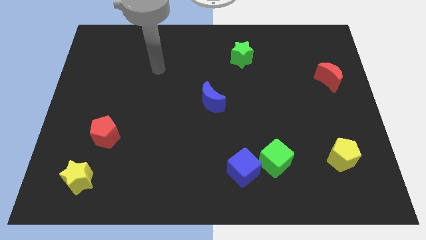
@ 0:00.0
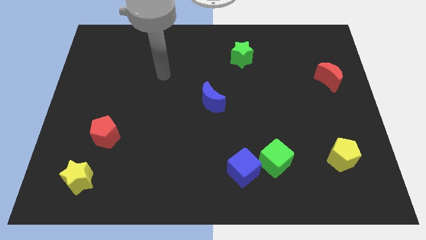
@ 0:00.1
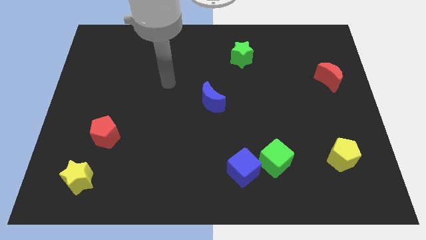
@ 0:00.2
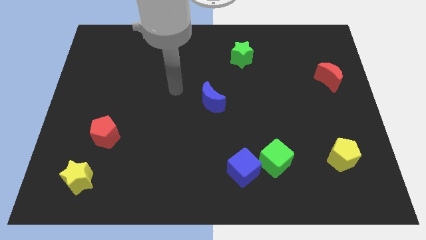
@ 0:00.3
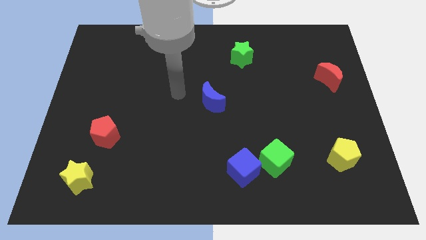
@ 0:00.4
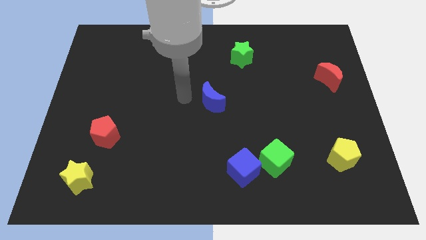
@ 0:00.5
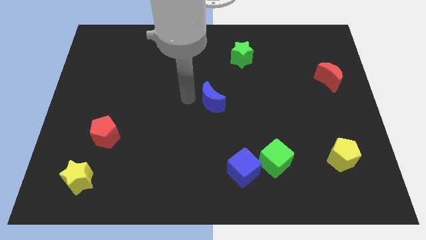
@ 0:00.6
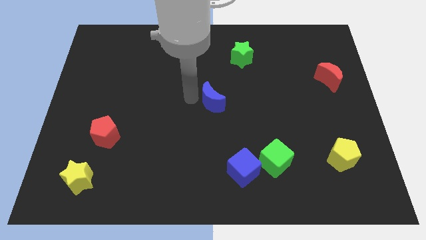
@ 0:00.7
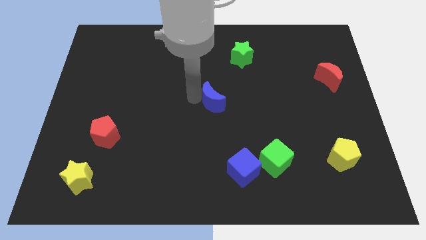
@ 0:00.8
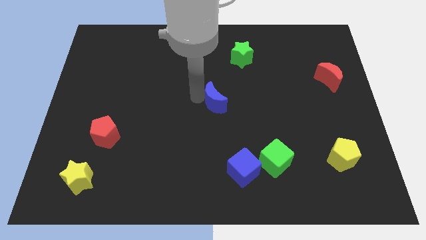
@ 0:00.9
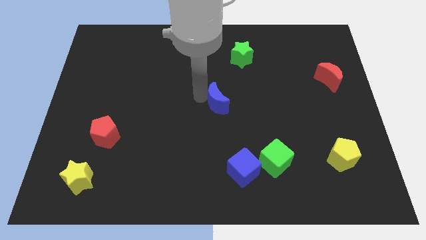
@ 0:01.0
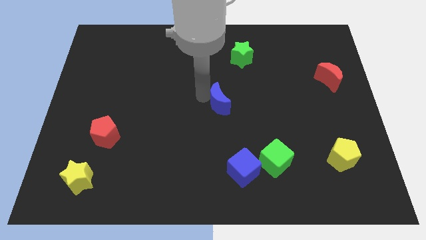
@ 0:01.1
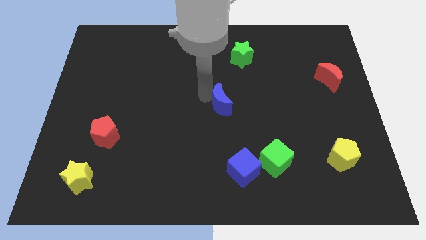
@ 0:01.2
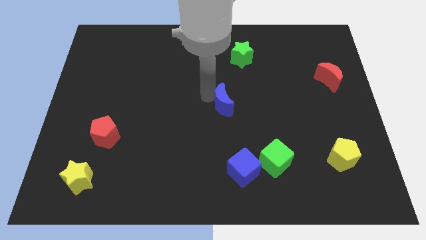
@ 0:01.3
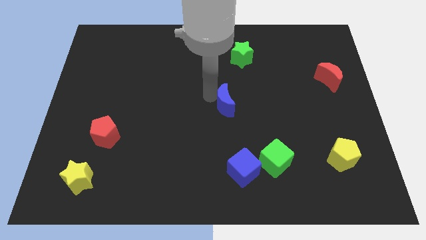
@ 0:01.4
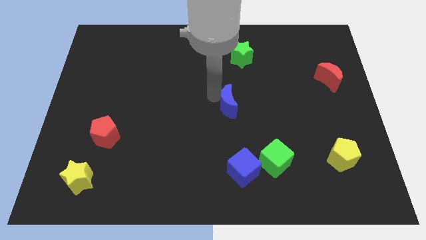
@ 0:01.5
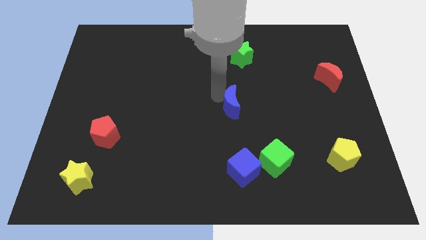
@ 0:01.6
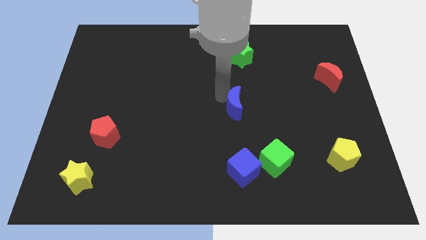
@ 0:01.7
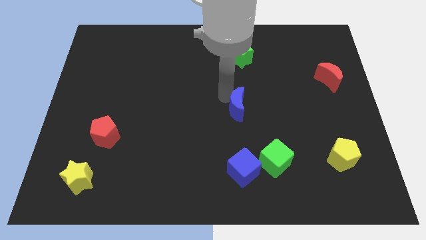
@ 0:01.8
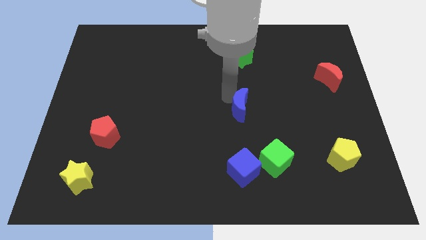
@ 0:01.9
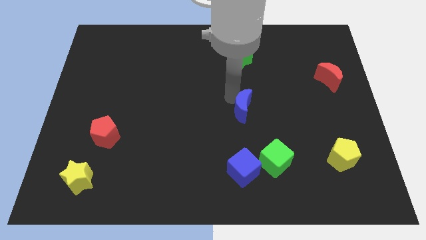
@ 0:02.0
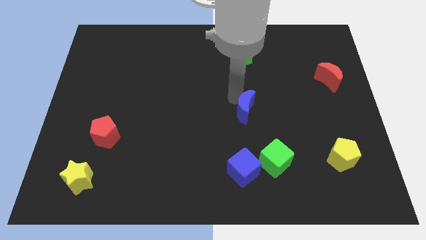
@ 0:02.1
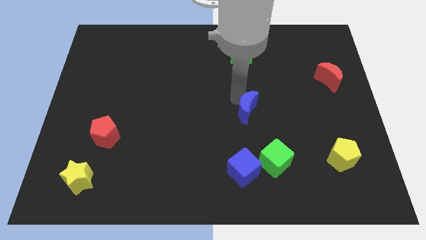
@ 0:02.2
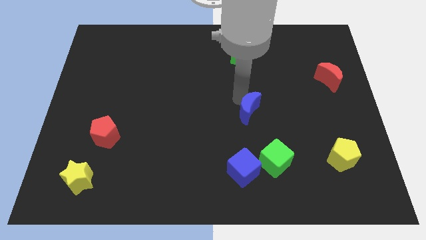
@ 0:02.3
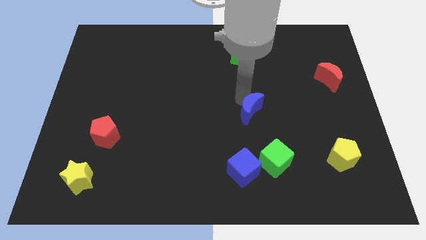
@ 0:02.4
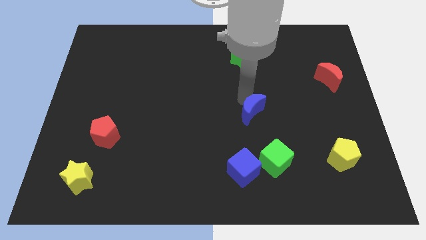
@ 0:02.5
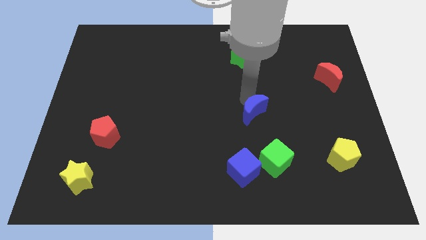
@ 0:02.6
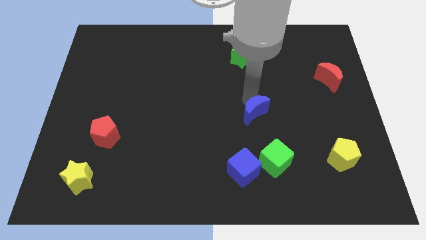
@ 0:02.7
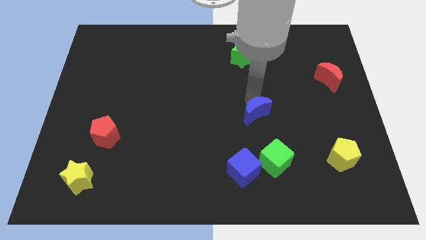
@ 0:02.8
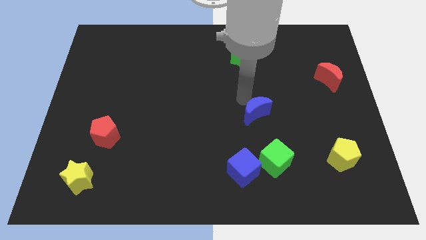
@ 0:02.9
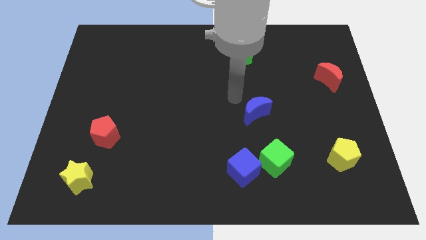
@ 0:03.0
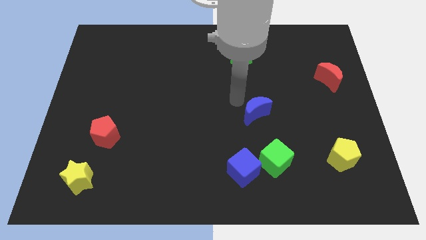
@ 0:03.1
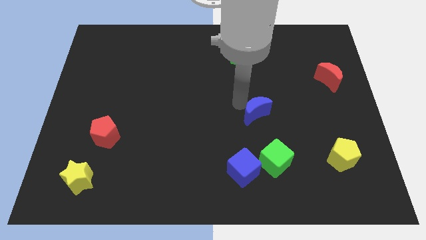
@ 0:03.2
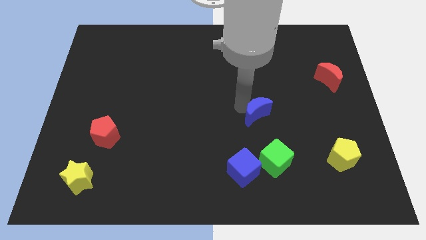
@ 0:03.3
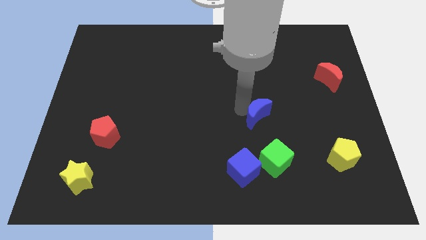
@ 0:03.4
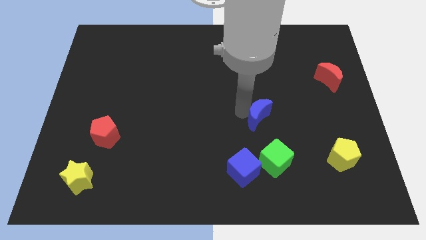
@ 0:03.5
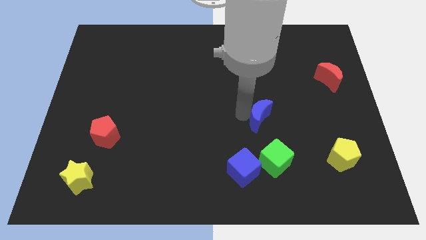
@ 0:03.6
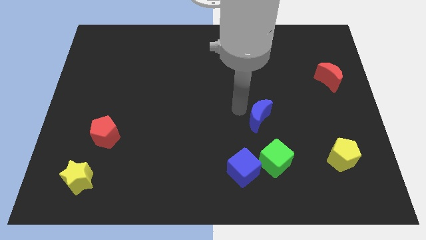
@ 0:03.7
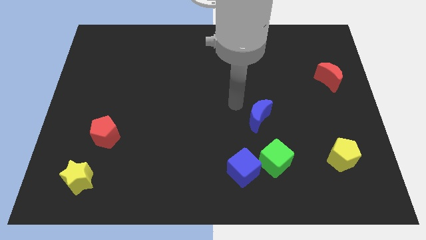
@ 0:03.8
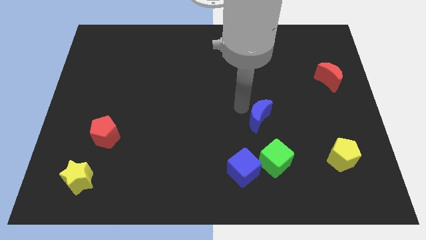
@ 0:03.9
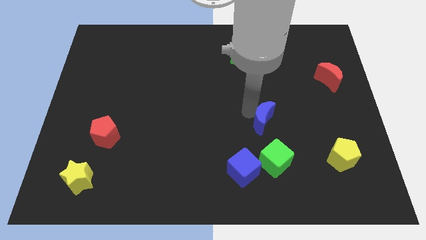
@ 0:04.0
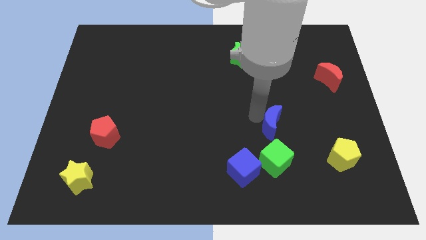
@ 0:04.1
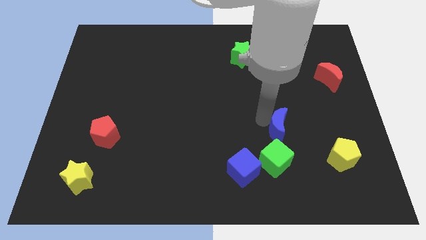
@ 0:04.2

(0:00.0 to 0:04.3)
put the blue moon to the top right of the green cube

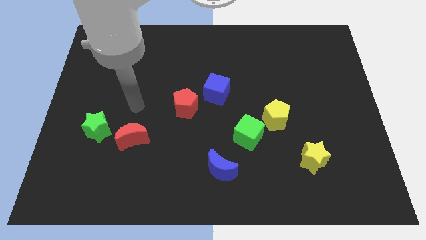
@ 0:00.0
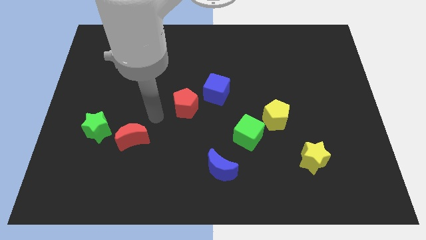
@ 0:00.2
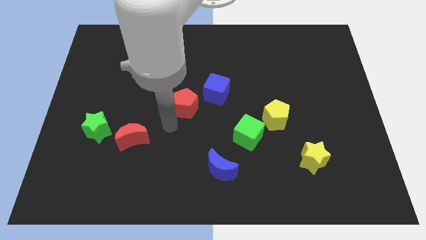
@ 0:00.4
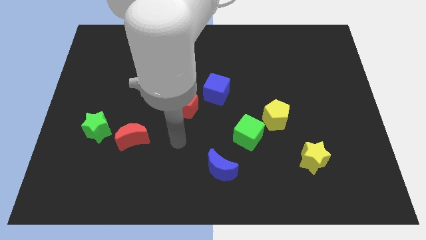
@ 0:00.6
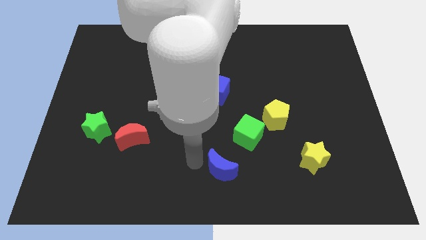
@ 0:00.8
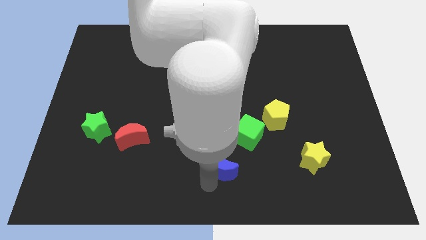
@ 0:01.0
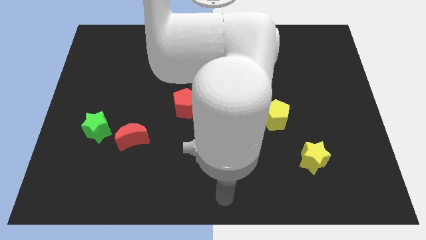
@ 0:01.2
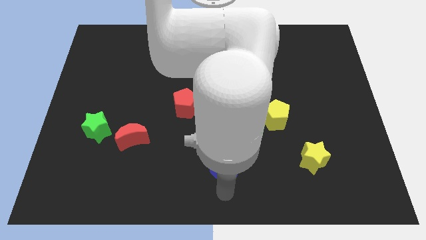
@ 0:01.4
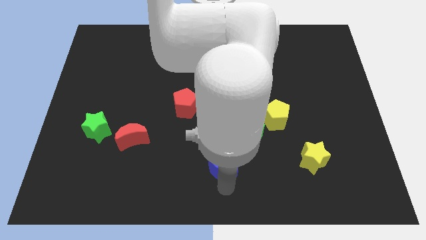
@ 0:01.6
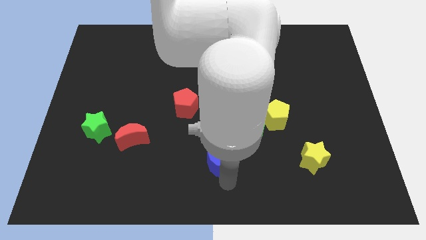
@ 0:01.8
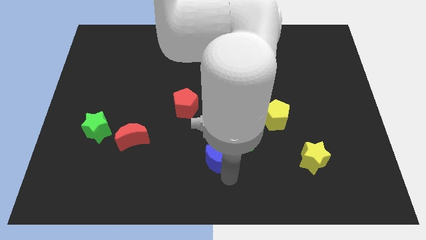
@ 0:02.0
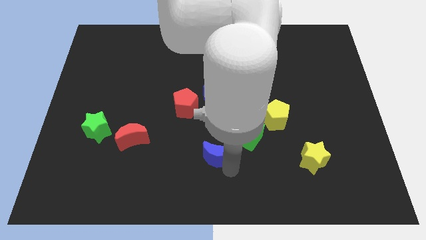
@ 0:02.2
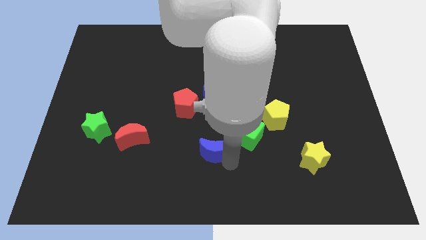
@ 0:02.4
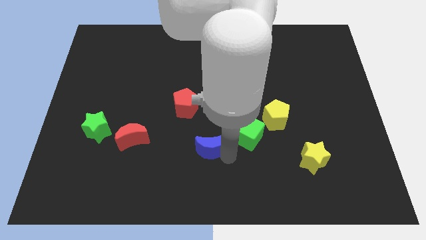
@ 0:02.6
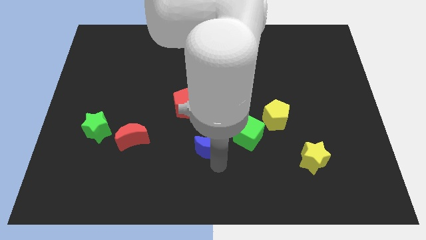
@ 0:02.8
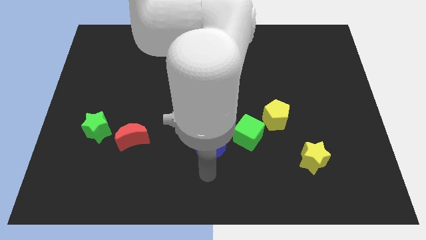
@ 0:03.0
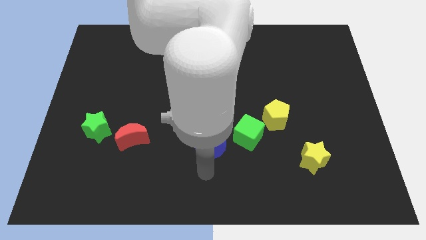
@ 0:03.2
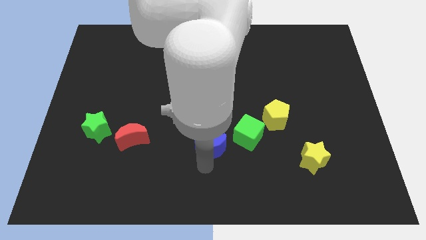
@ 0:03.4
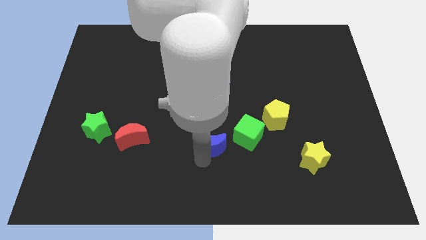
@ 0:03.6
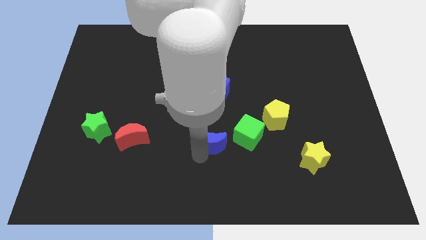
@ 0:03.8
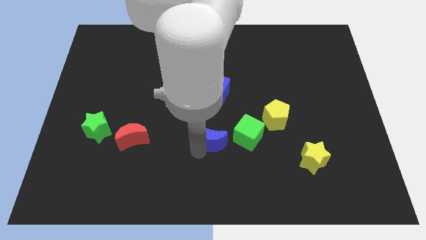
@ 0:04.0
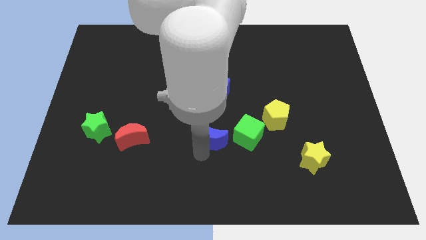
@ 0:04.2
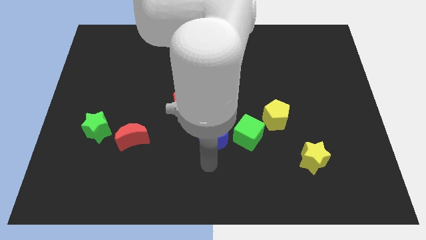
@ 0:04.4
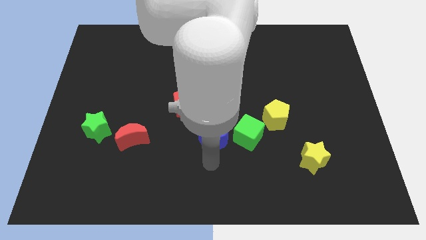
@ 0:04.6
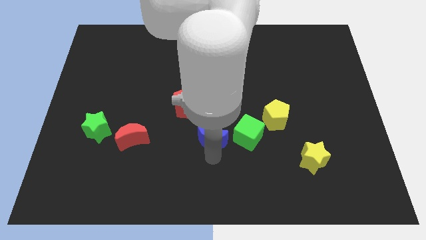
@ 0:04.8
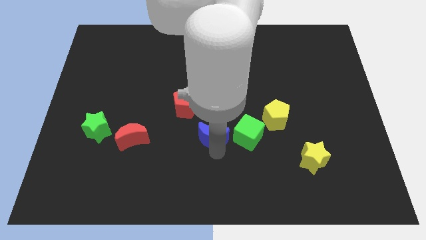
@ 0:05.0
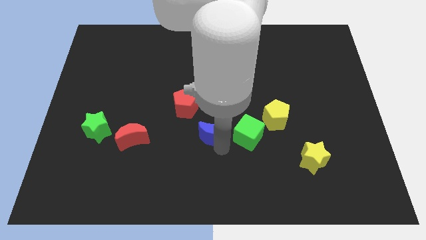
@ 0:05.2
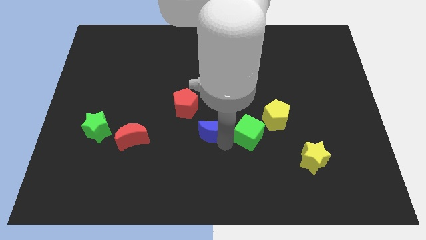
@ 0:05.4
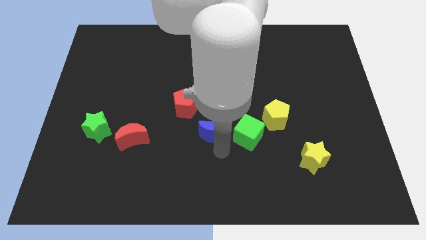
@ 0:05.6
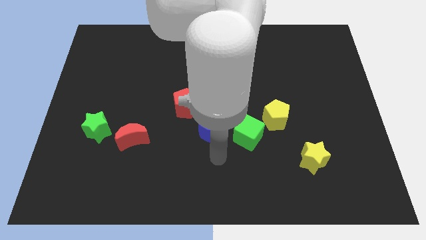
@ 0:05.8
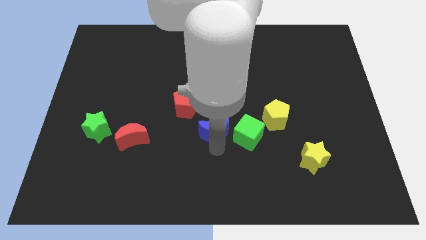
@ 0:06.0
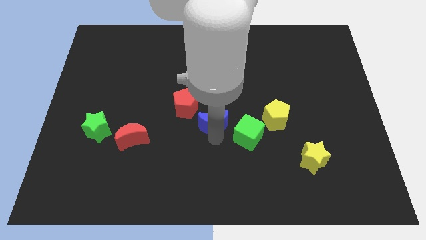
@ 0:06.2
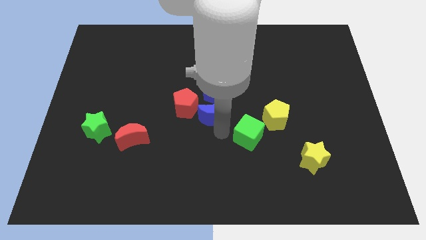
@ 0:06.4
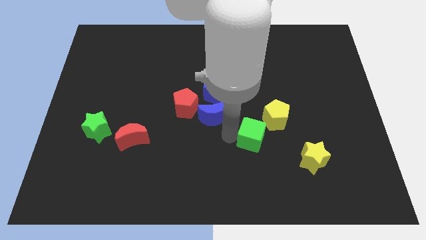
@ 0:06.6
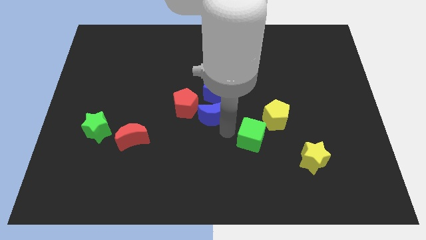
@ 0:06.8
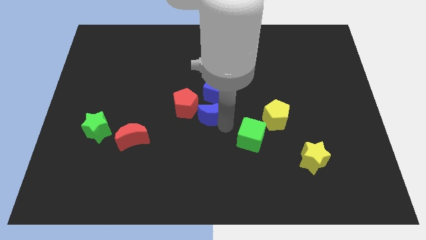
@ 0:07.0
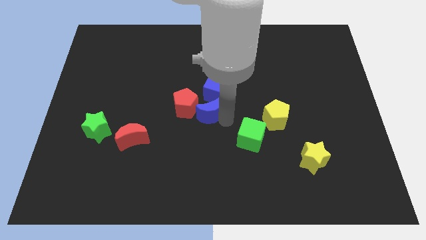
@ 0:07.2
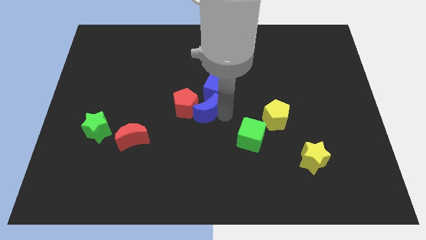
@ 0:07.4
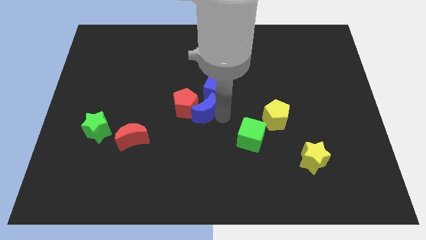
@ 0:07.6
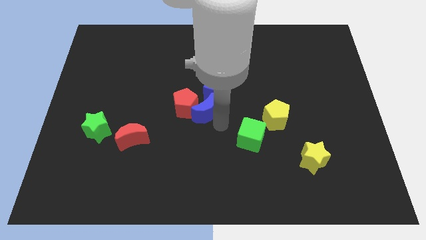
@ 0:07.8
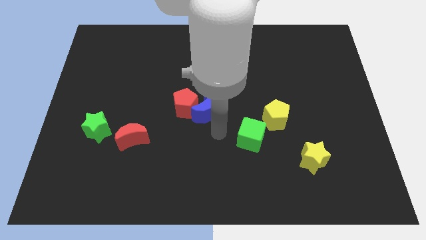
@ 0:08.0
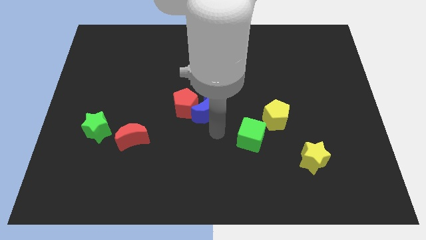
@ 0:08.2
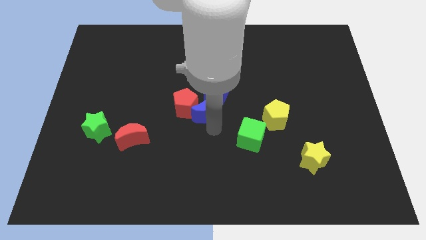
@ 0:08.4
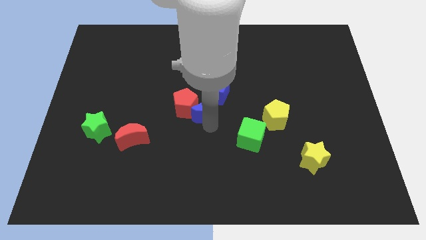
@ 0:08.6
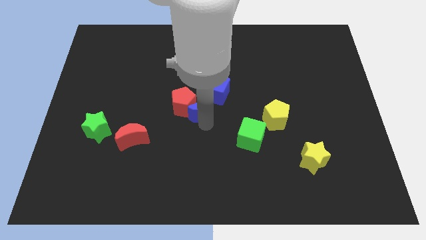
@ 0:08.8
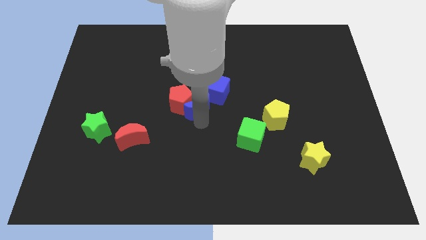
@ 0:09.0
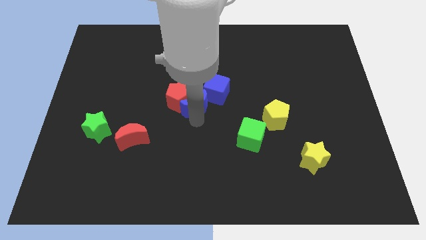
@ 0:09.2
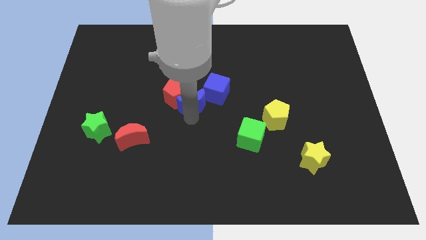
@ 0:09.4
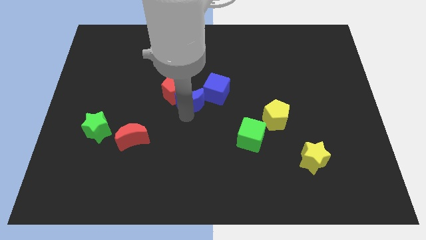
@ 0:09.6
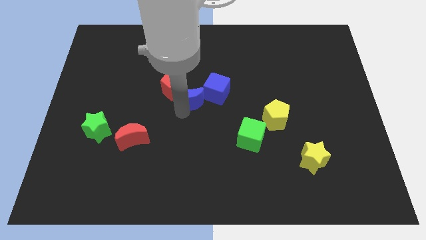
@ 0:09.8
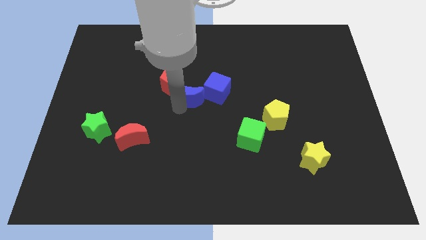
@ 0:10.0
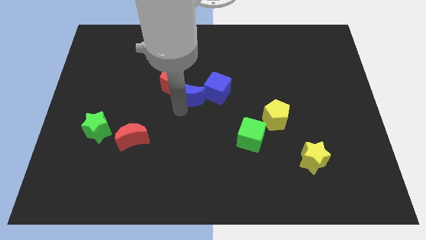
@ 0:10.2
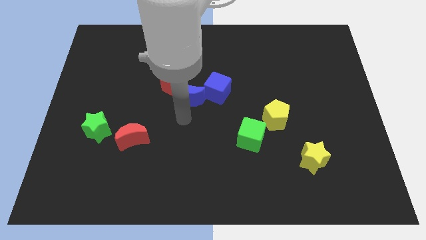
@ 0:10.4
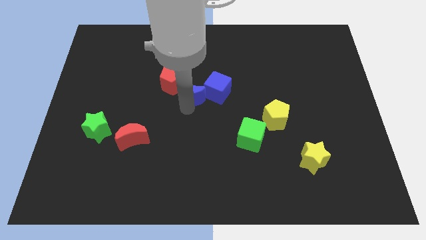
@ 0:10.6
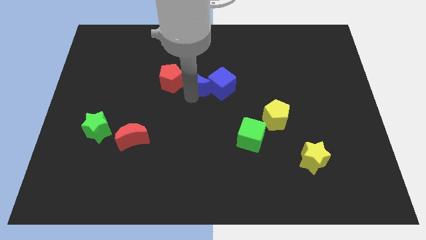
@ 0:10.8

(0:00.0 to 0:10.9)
put the blue moon to the top left of the blue cube
